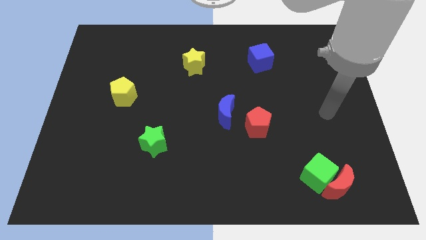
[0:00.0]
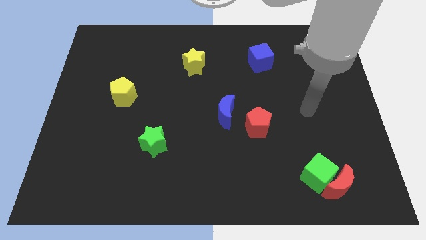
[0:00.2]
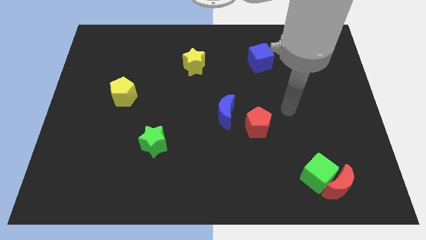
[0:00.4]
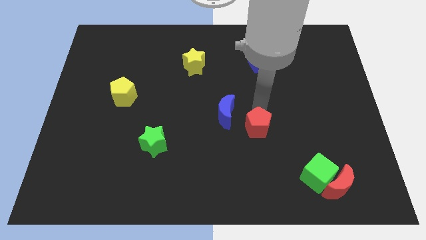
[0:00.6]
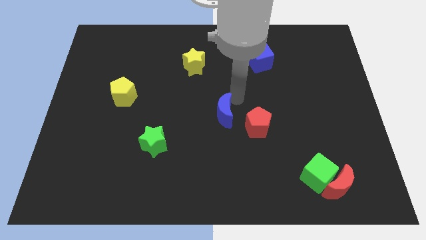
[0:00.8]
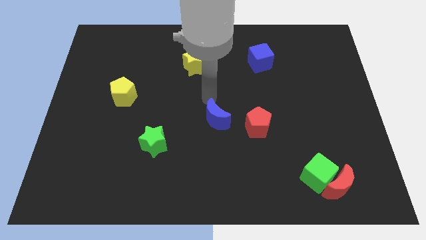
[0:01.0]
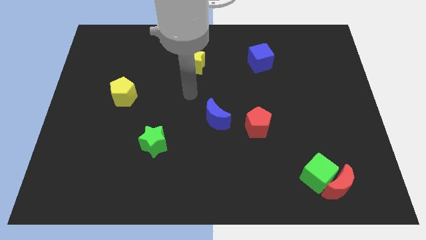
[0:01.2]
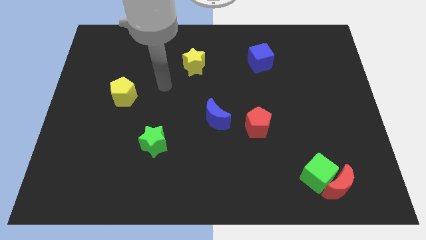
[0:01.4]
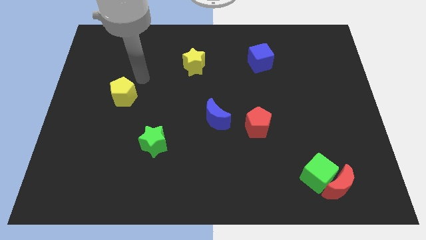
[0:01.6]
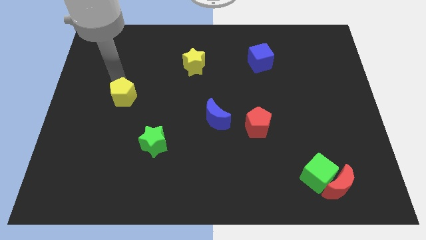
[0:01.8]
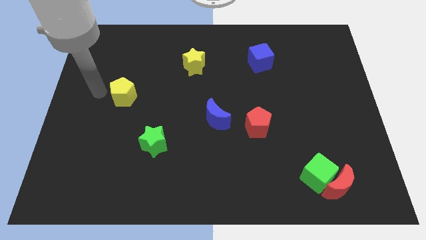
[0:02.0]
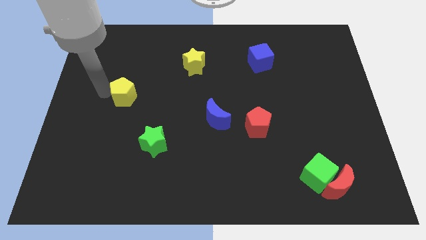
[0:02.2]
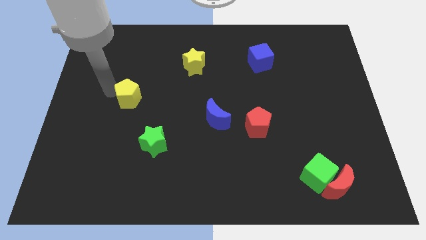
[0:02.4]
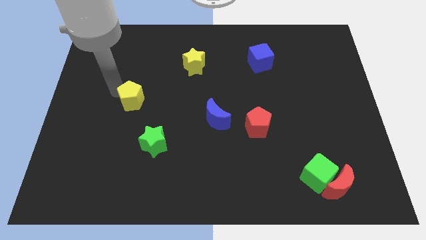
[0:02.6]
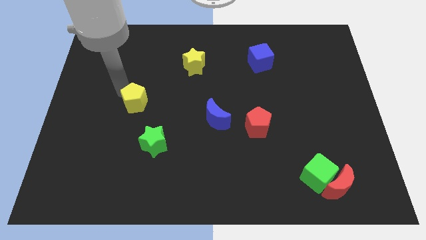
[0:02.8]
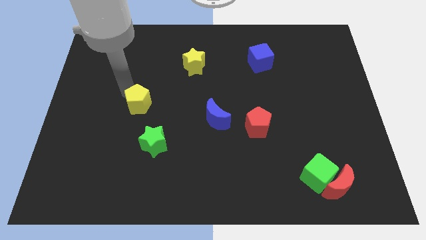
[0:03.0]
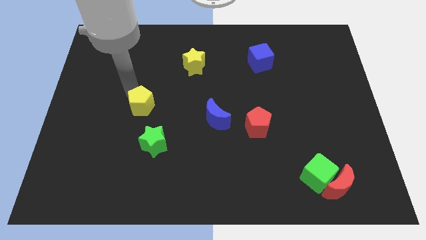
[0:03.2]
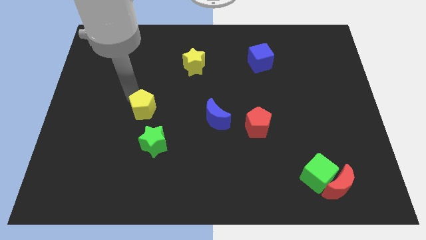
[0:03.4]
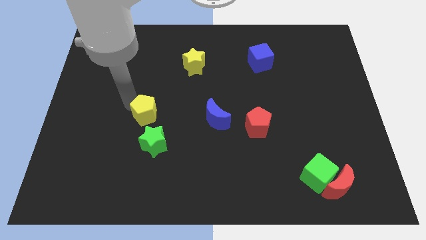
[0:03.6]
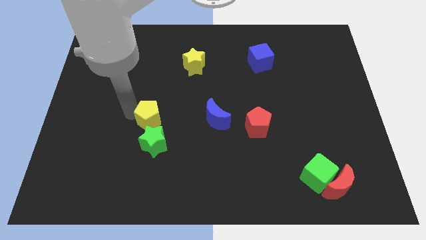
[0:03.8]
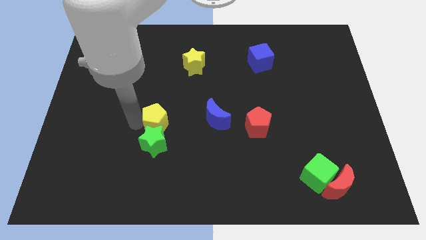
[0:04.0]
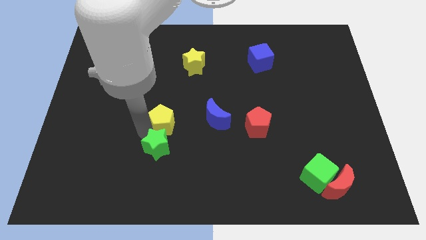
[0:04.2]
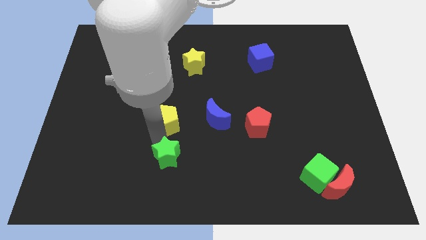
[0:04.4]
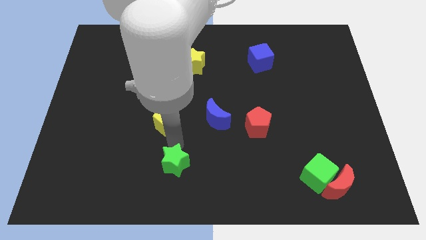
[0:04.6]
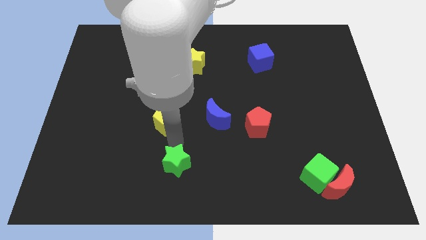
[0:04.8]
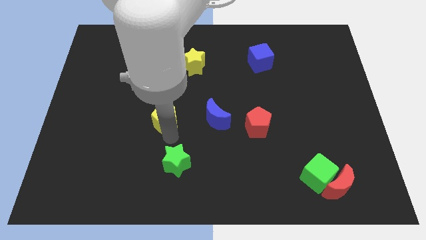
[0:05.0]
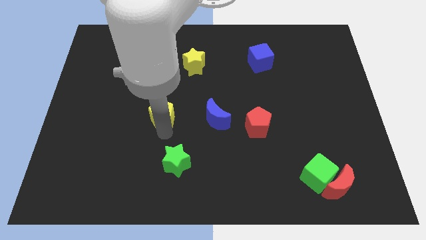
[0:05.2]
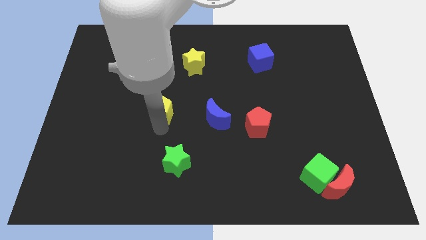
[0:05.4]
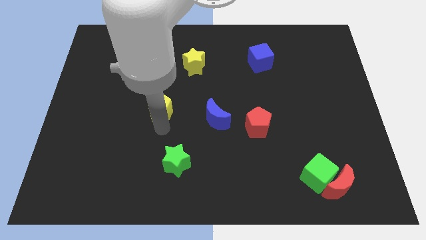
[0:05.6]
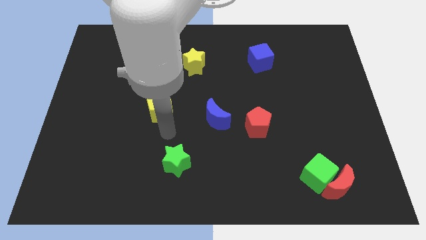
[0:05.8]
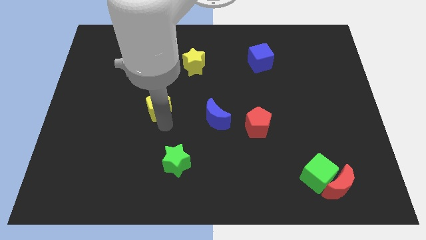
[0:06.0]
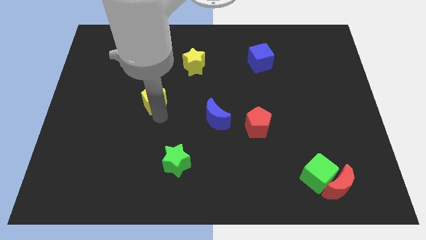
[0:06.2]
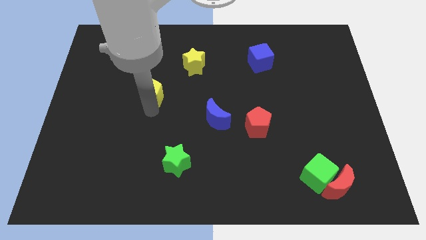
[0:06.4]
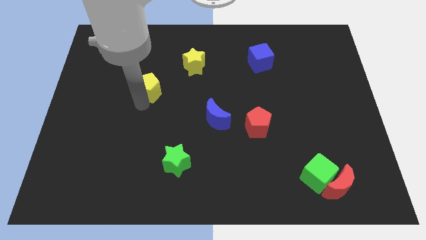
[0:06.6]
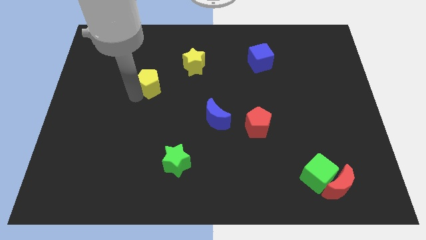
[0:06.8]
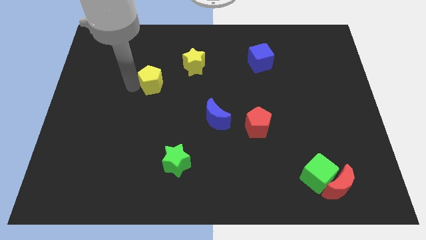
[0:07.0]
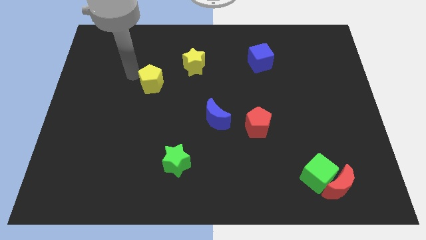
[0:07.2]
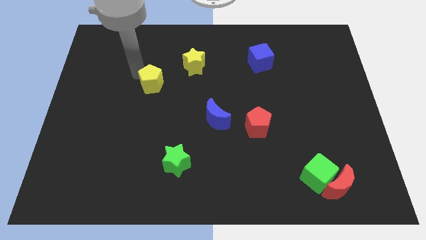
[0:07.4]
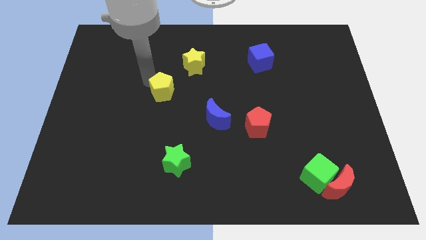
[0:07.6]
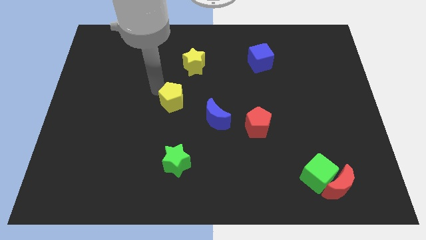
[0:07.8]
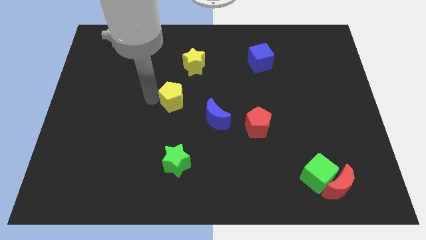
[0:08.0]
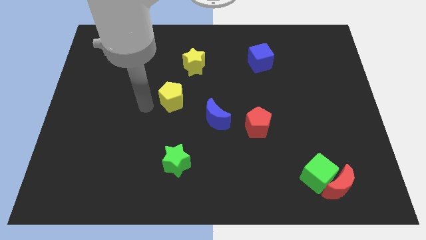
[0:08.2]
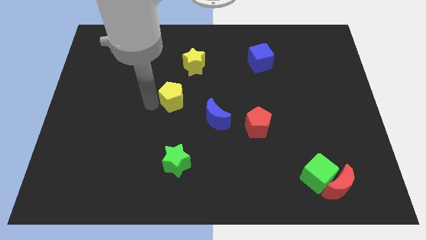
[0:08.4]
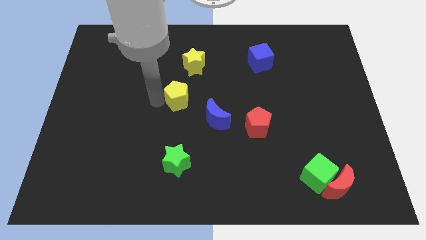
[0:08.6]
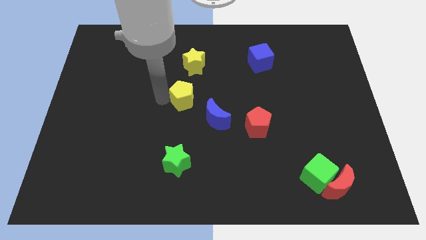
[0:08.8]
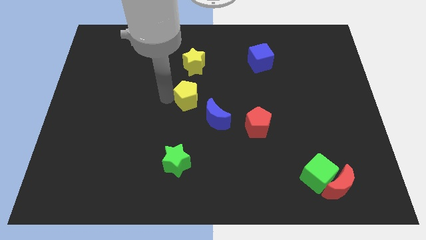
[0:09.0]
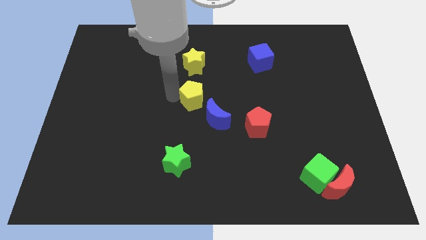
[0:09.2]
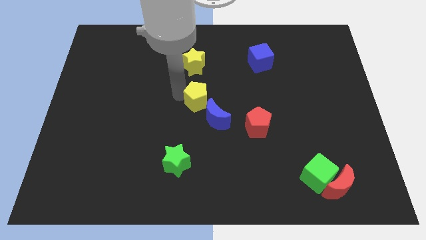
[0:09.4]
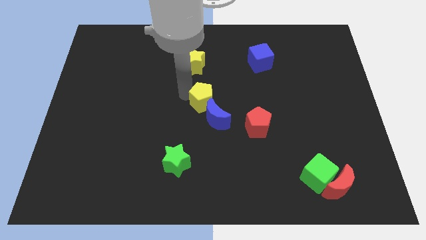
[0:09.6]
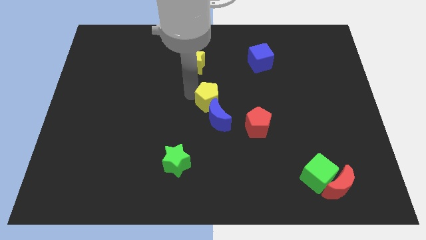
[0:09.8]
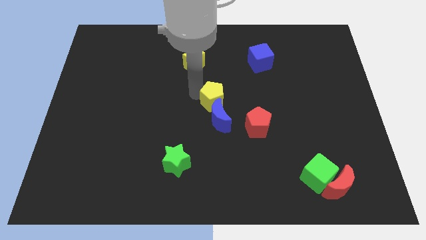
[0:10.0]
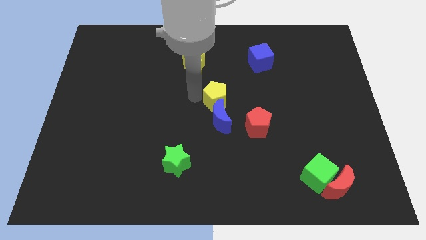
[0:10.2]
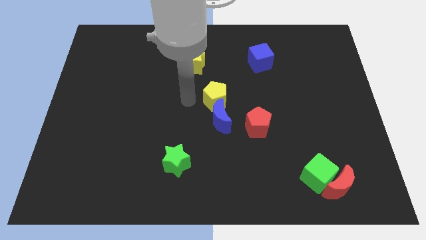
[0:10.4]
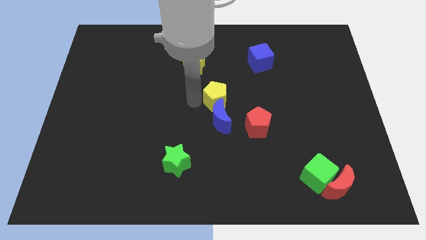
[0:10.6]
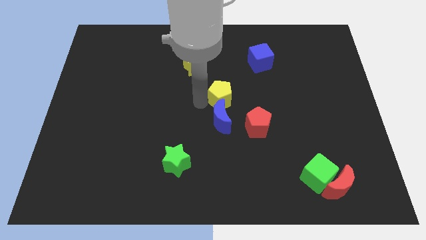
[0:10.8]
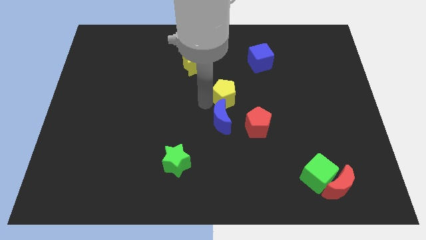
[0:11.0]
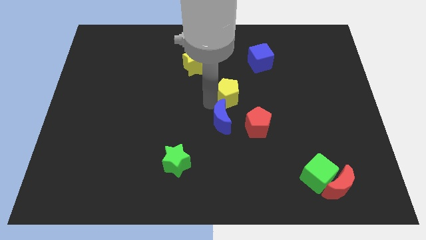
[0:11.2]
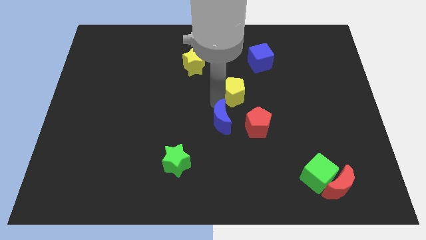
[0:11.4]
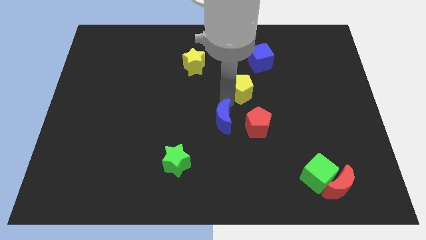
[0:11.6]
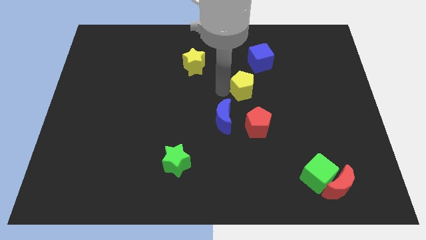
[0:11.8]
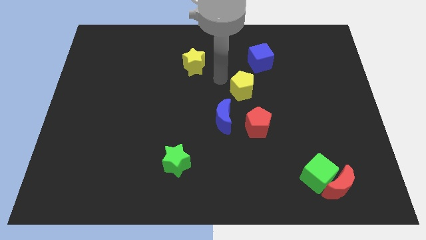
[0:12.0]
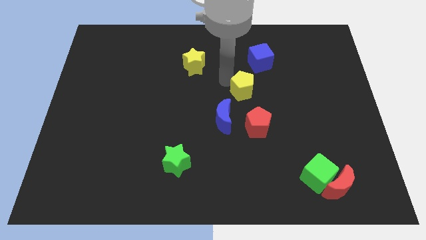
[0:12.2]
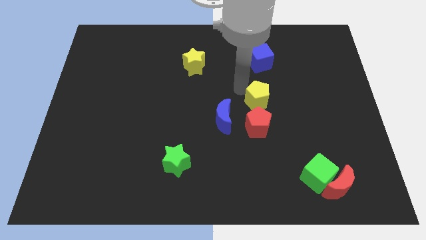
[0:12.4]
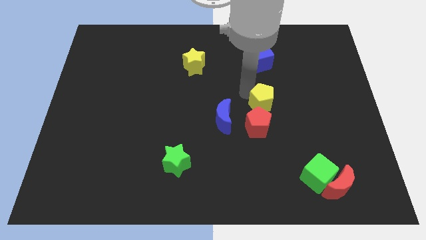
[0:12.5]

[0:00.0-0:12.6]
put the yellow pentagon to the top right of the red pentagon
